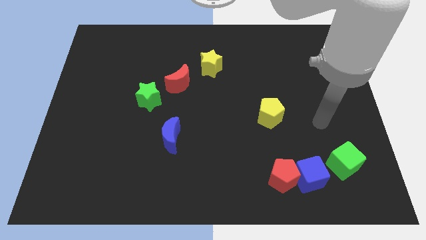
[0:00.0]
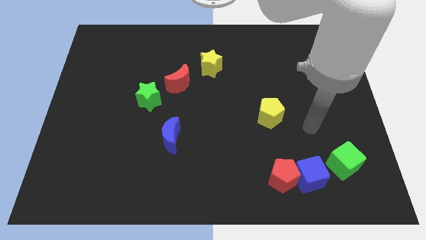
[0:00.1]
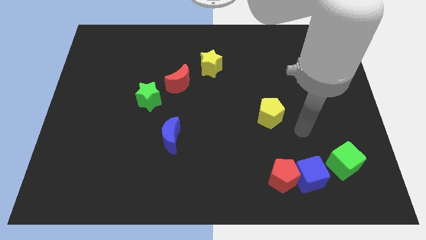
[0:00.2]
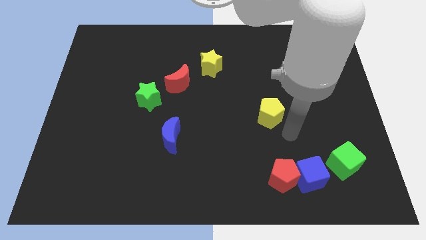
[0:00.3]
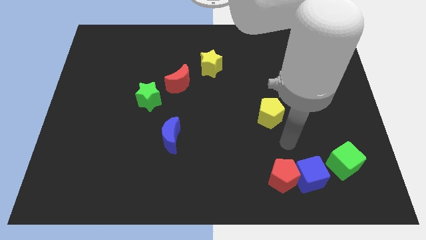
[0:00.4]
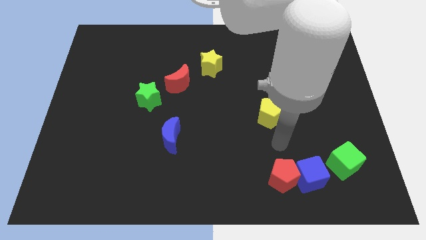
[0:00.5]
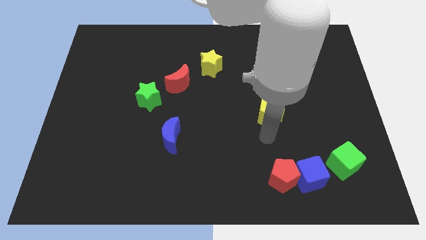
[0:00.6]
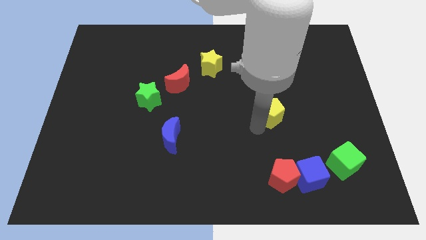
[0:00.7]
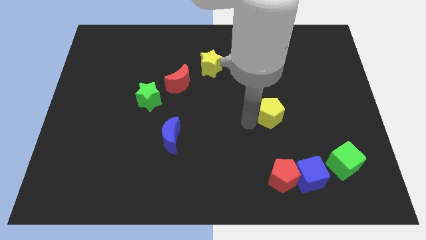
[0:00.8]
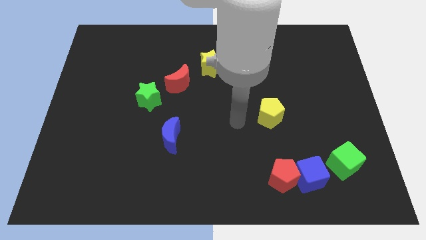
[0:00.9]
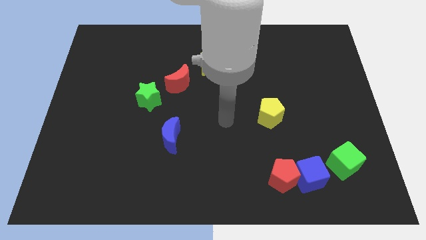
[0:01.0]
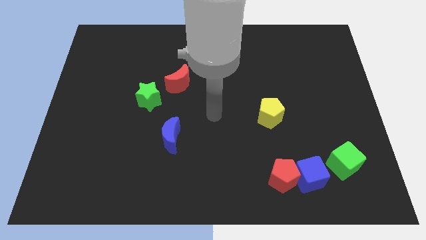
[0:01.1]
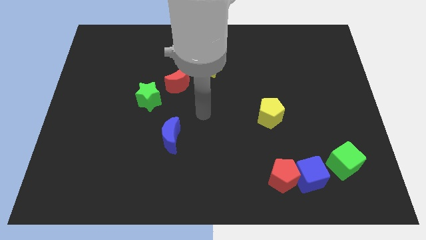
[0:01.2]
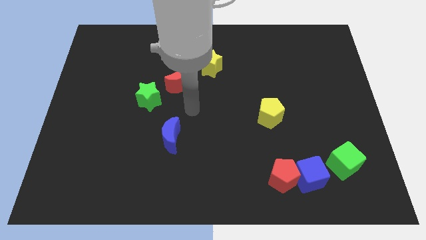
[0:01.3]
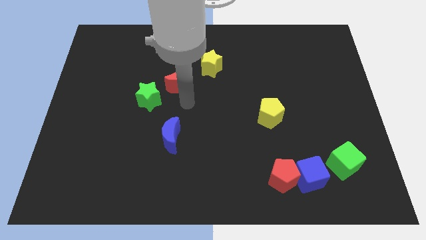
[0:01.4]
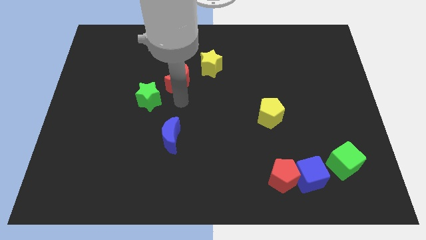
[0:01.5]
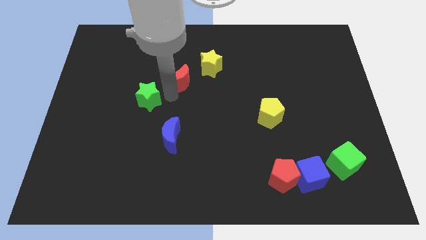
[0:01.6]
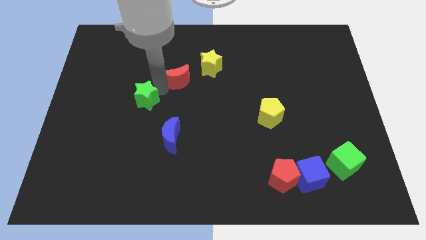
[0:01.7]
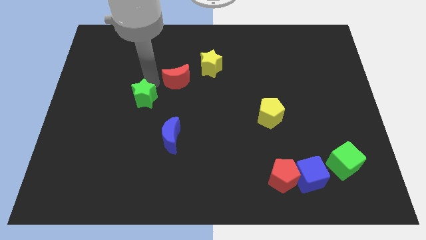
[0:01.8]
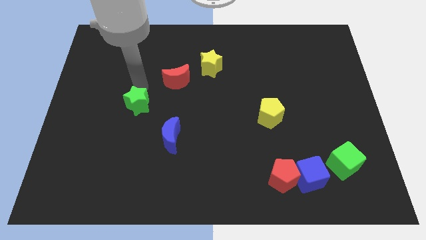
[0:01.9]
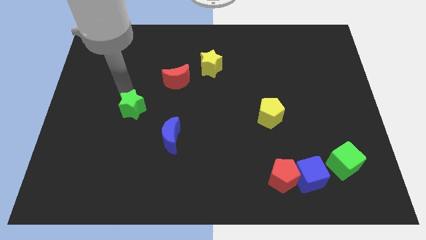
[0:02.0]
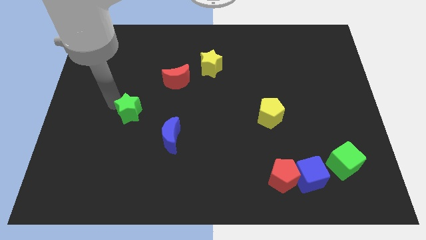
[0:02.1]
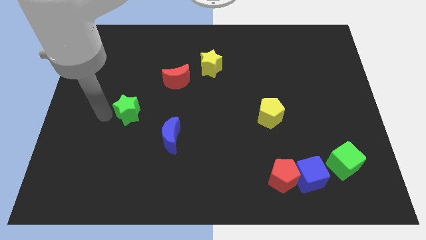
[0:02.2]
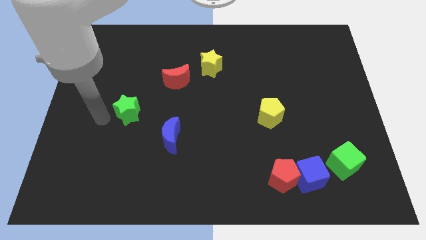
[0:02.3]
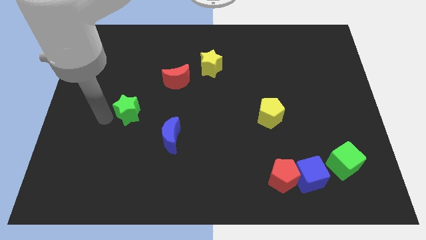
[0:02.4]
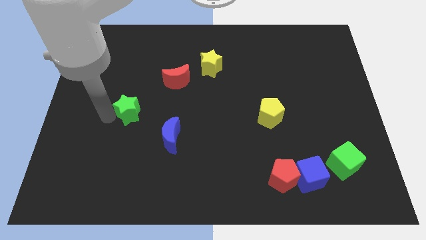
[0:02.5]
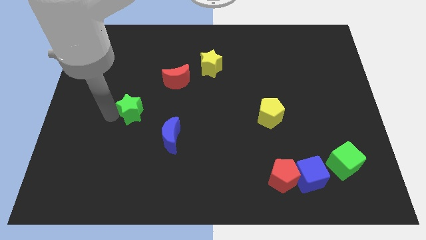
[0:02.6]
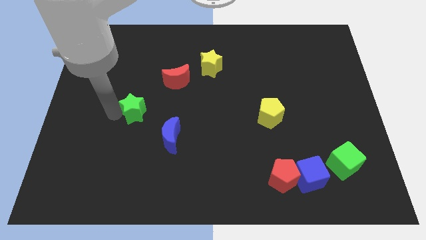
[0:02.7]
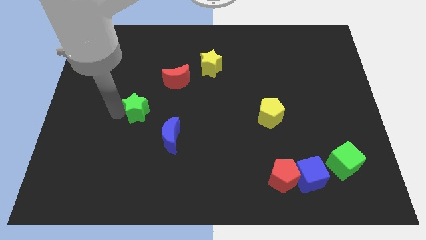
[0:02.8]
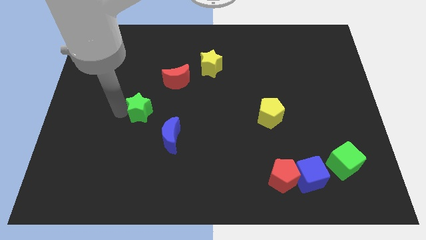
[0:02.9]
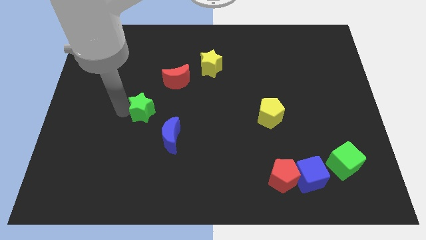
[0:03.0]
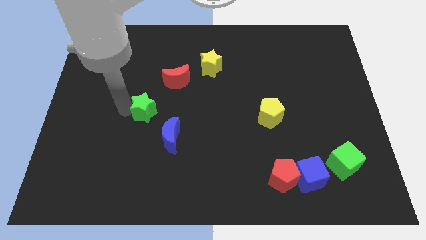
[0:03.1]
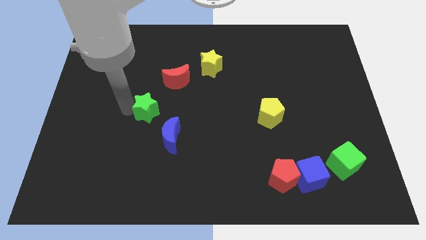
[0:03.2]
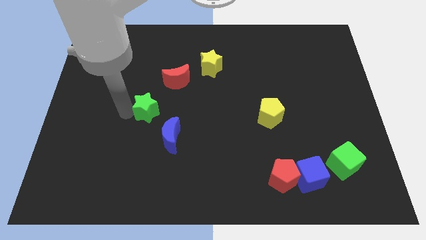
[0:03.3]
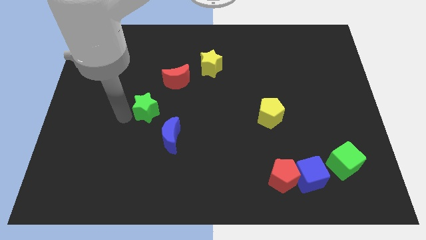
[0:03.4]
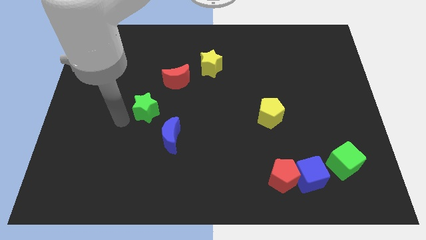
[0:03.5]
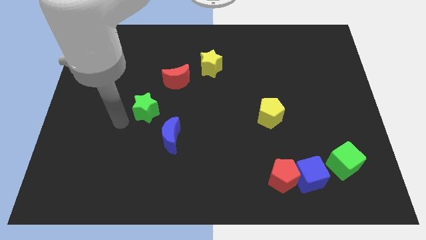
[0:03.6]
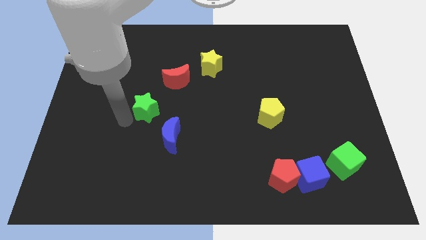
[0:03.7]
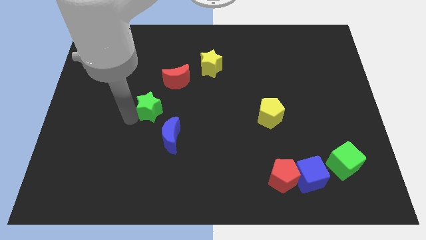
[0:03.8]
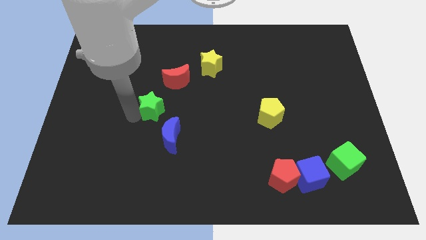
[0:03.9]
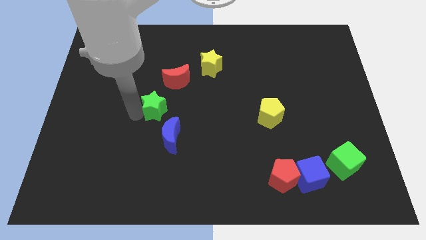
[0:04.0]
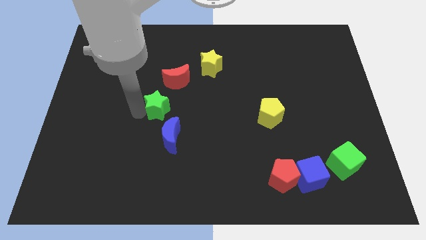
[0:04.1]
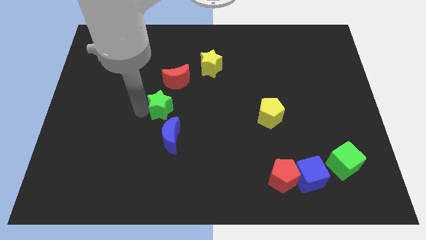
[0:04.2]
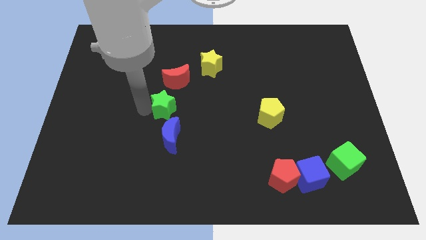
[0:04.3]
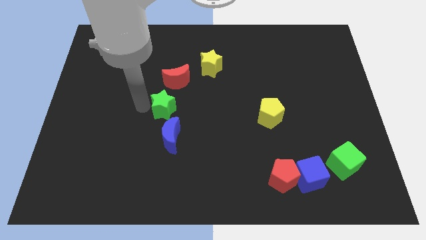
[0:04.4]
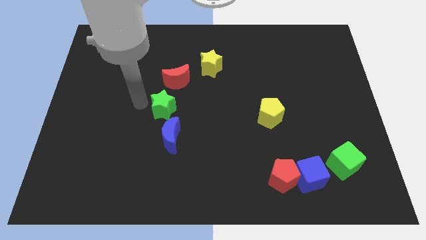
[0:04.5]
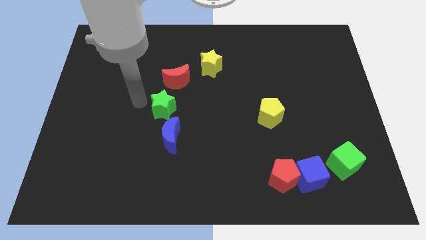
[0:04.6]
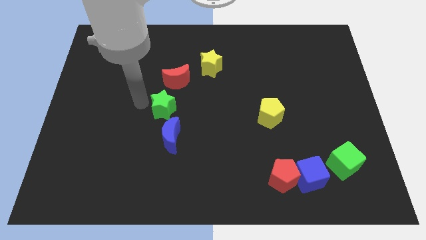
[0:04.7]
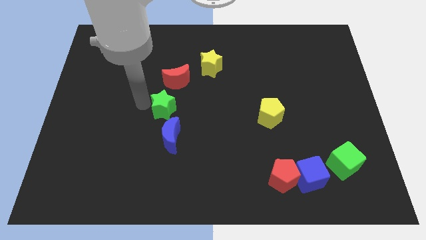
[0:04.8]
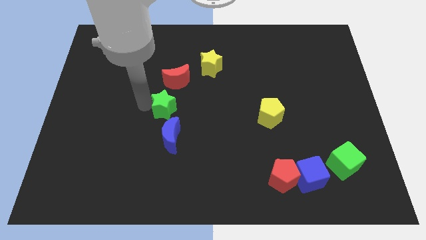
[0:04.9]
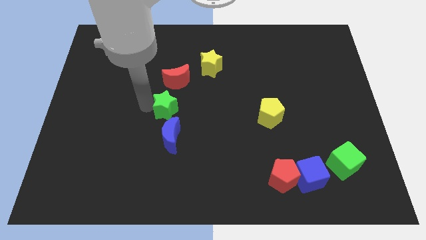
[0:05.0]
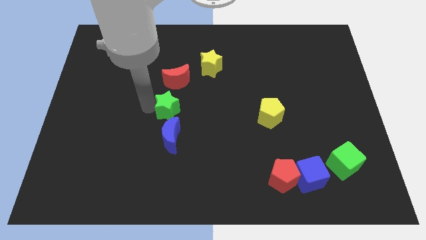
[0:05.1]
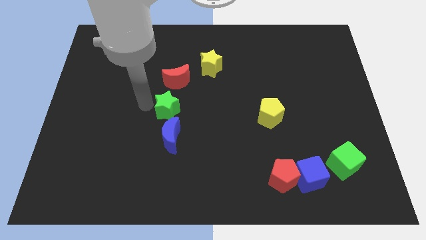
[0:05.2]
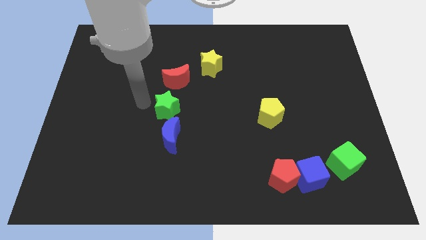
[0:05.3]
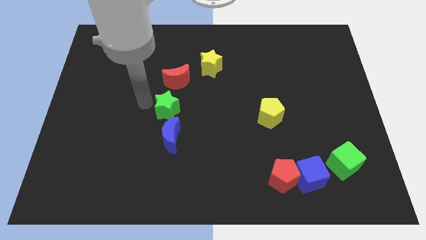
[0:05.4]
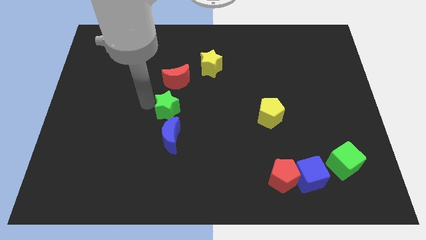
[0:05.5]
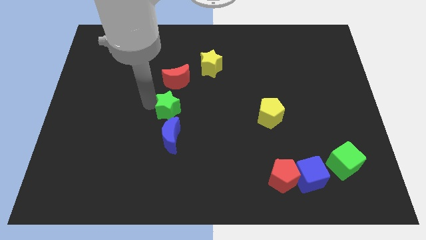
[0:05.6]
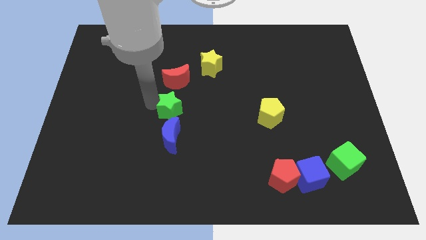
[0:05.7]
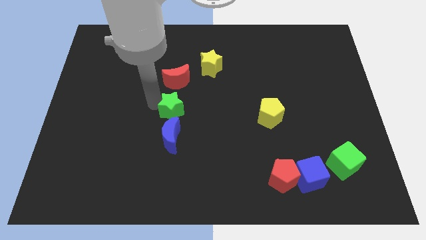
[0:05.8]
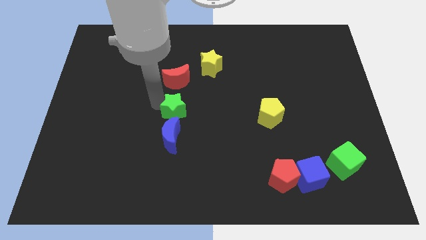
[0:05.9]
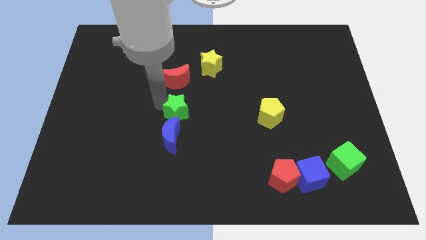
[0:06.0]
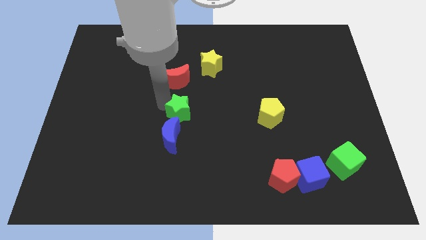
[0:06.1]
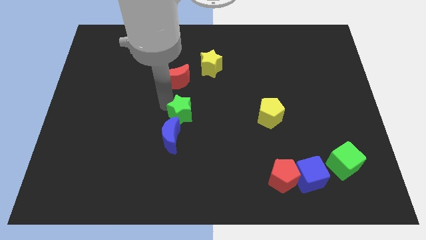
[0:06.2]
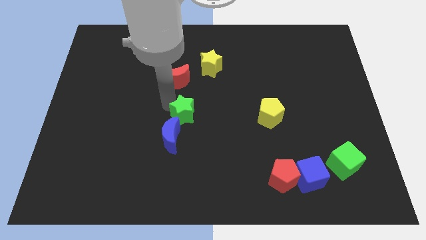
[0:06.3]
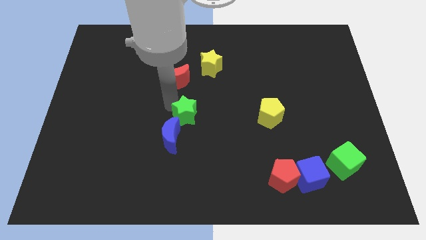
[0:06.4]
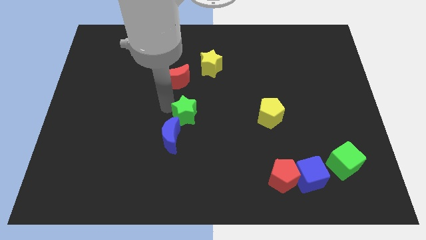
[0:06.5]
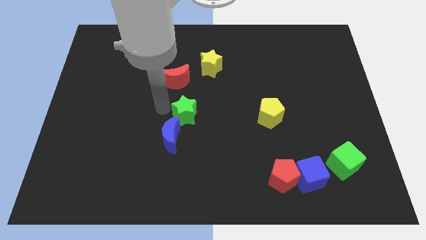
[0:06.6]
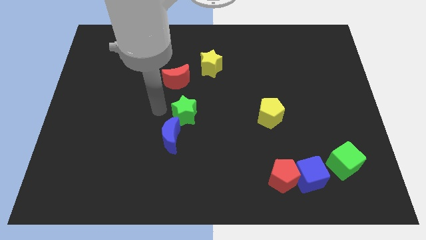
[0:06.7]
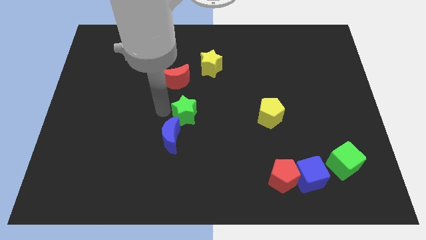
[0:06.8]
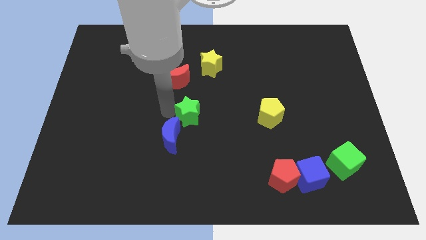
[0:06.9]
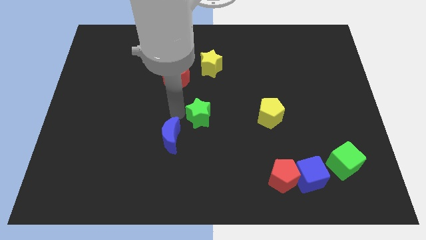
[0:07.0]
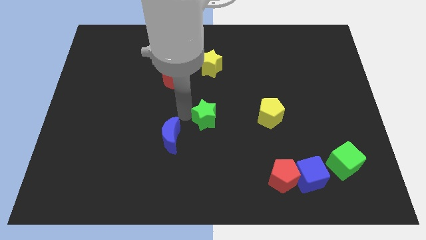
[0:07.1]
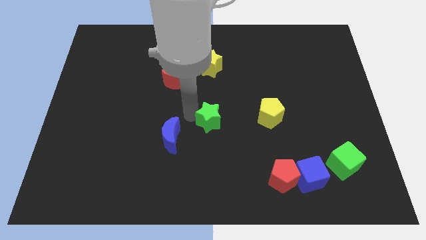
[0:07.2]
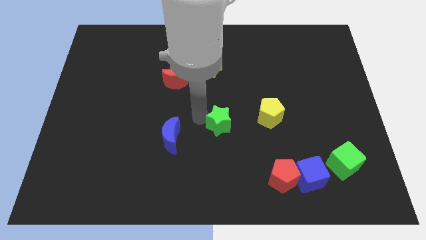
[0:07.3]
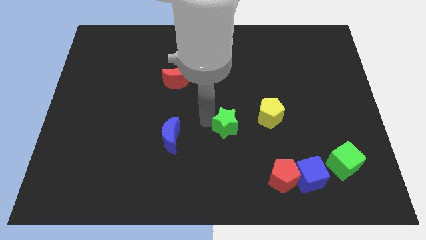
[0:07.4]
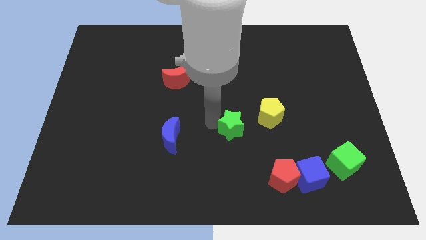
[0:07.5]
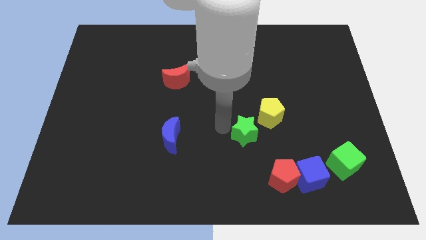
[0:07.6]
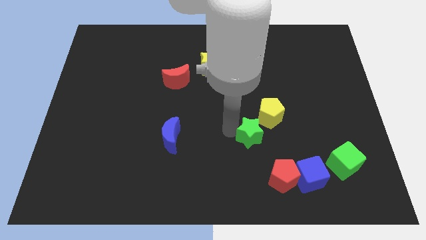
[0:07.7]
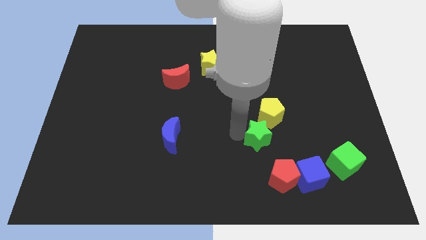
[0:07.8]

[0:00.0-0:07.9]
put the green star to the top side of the red pentagon
